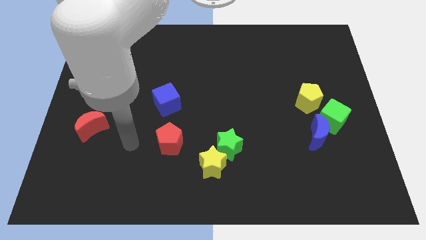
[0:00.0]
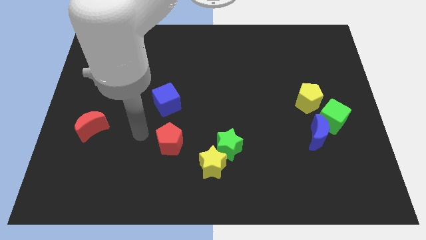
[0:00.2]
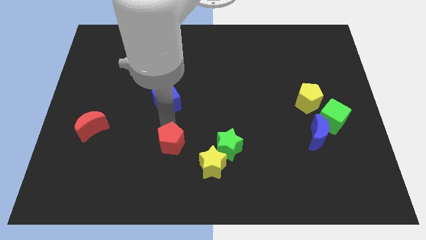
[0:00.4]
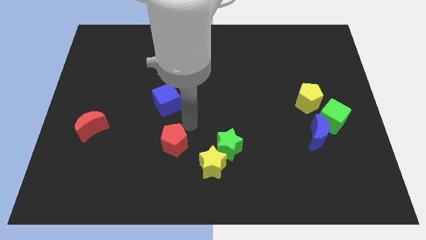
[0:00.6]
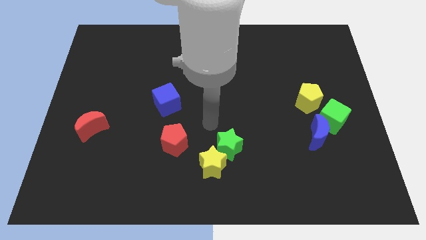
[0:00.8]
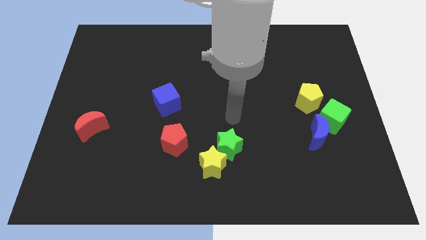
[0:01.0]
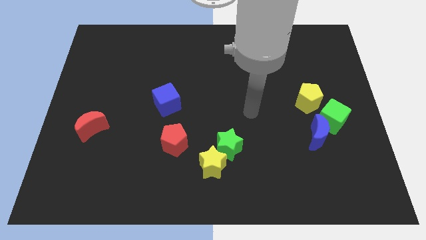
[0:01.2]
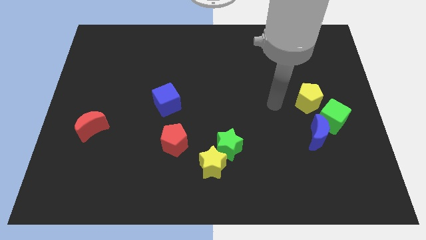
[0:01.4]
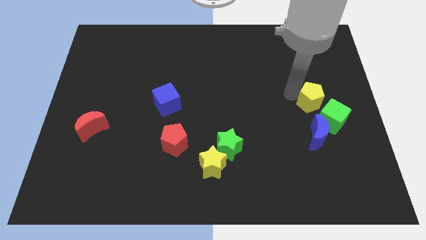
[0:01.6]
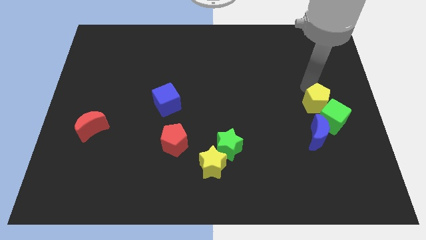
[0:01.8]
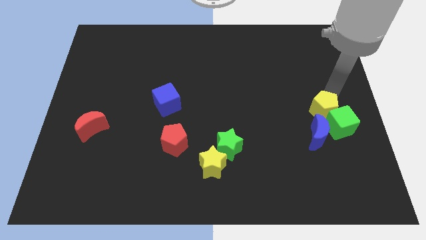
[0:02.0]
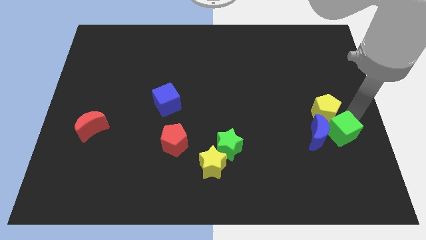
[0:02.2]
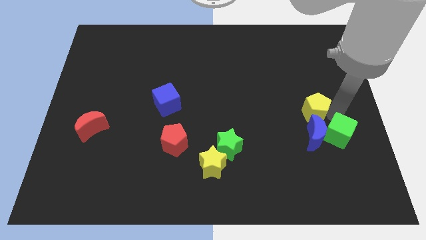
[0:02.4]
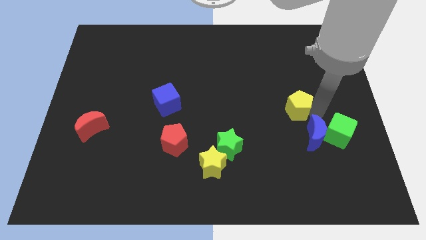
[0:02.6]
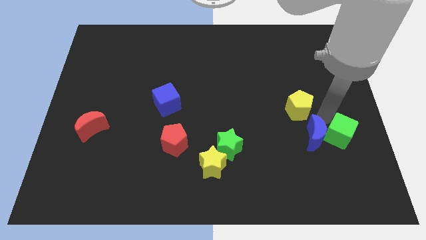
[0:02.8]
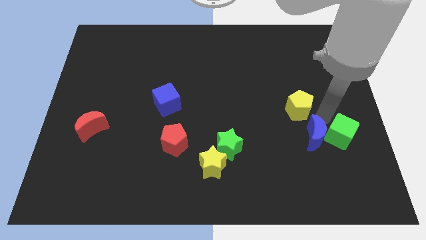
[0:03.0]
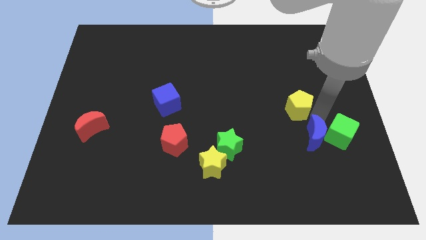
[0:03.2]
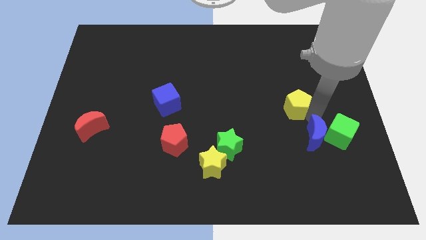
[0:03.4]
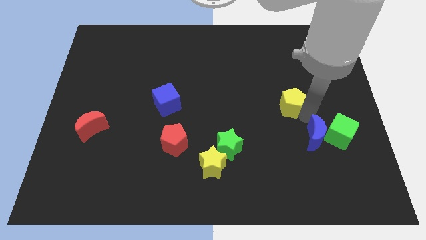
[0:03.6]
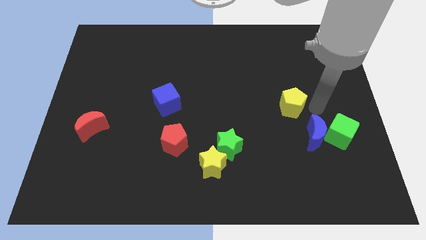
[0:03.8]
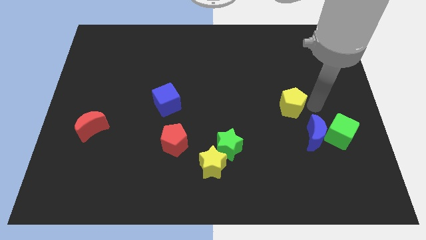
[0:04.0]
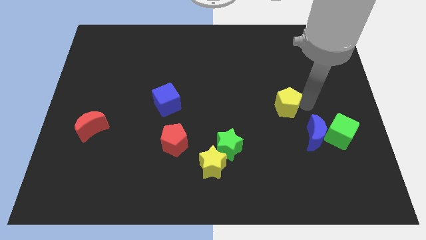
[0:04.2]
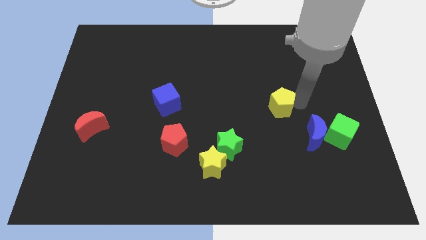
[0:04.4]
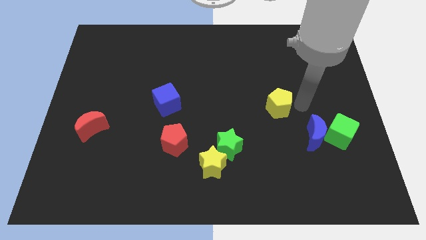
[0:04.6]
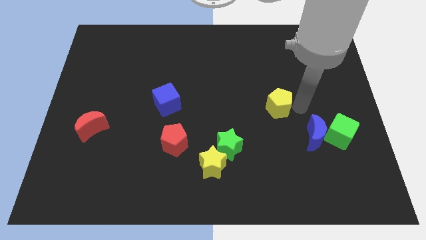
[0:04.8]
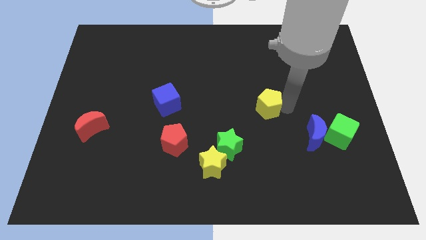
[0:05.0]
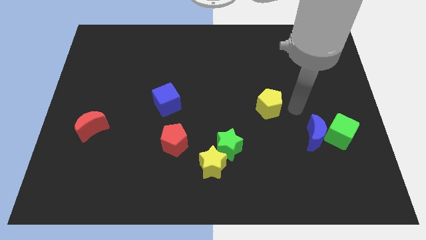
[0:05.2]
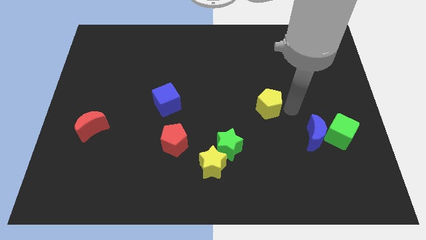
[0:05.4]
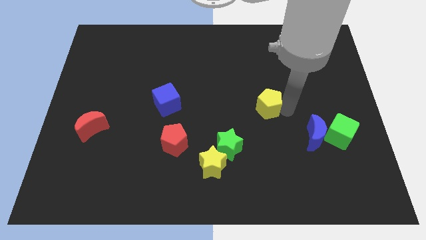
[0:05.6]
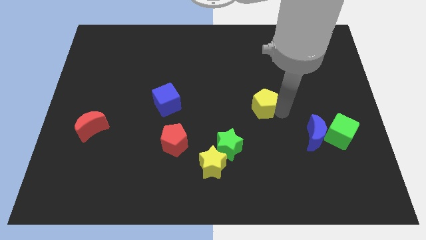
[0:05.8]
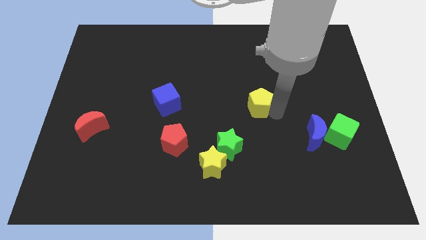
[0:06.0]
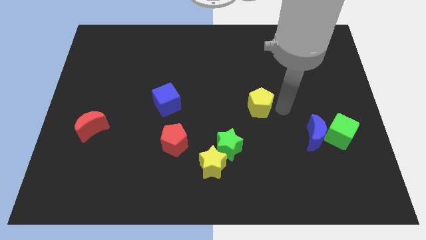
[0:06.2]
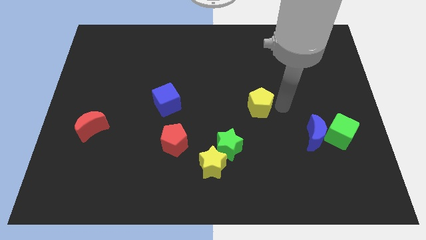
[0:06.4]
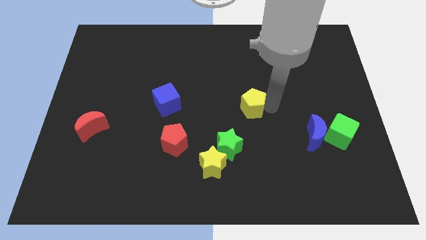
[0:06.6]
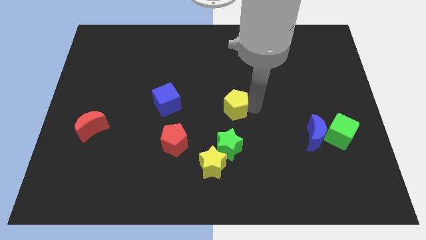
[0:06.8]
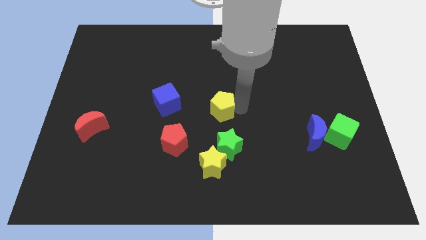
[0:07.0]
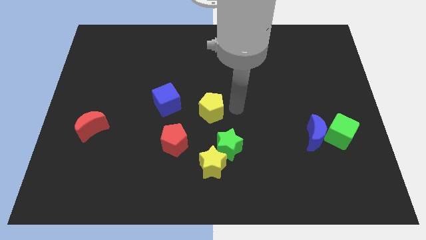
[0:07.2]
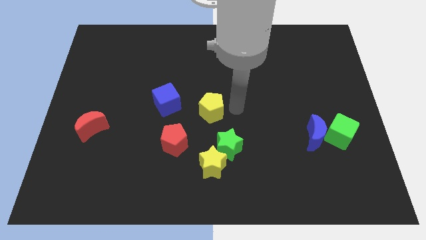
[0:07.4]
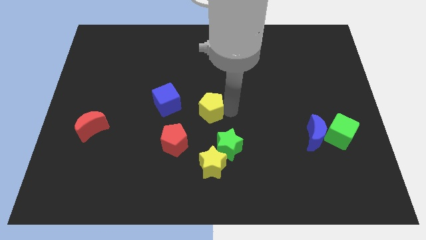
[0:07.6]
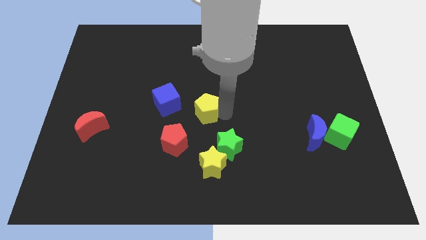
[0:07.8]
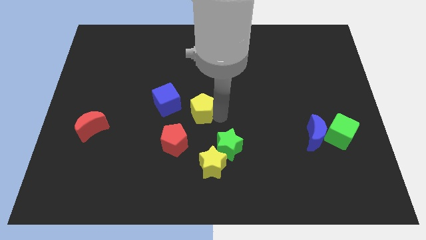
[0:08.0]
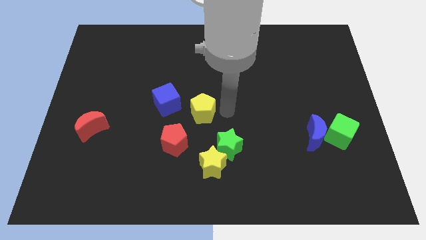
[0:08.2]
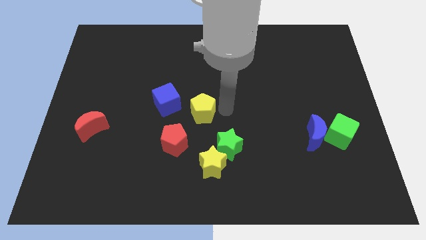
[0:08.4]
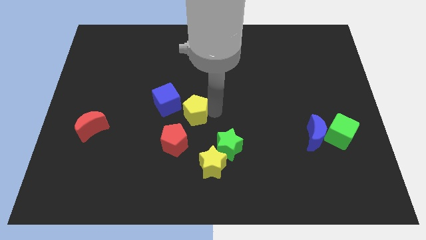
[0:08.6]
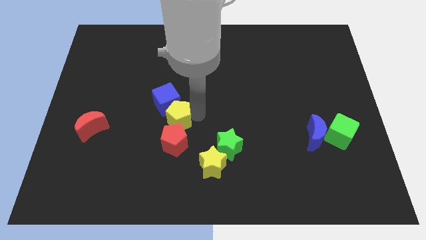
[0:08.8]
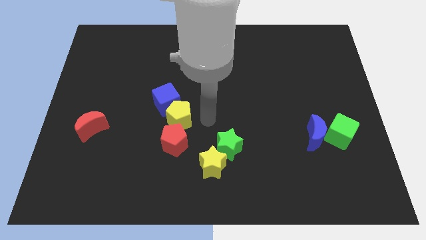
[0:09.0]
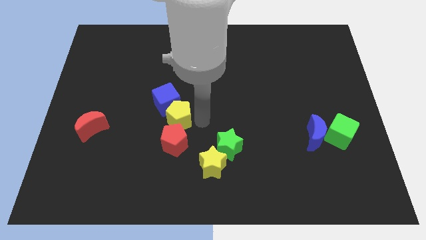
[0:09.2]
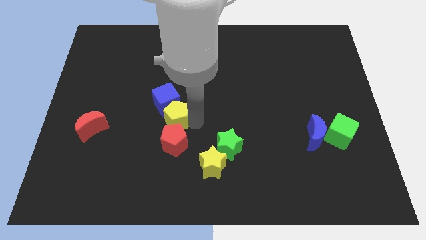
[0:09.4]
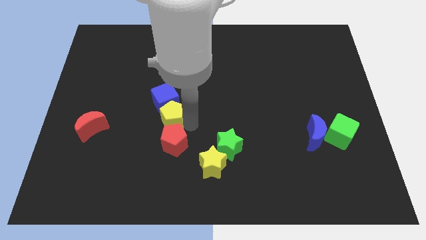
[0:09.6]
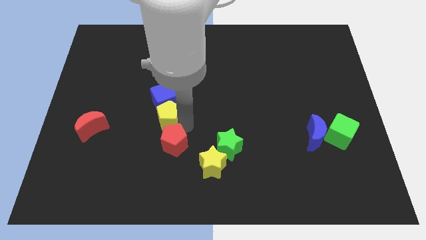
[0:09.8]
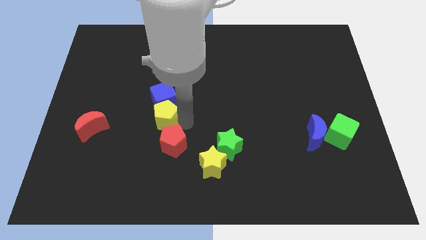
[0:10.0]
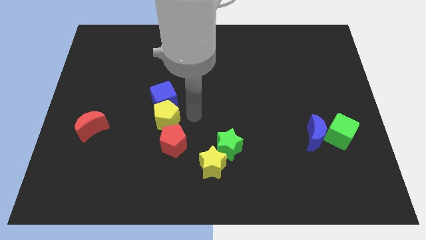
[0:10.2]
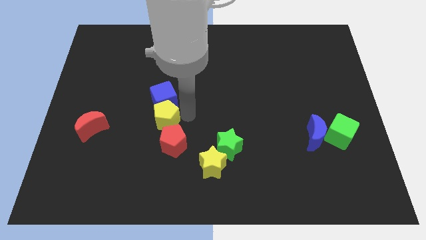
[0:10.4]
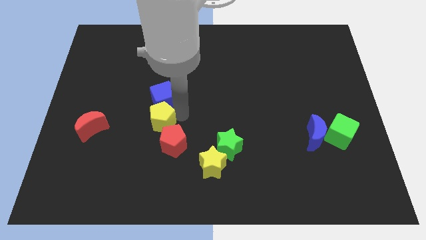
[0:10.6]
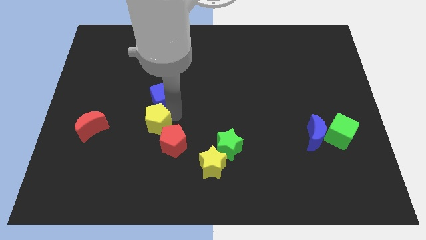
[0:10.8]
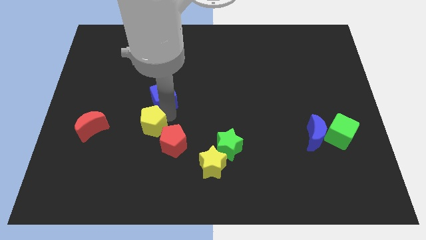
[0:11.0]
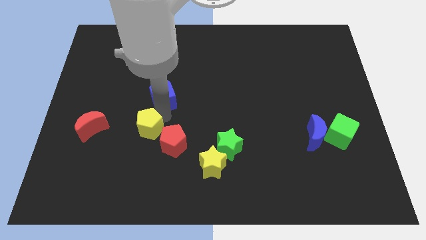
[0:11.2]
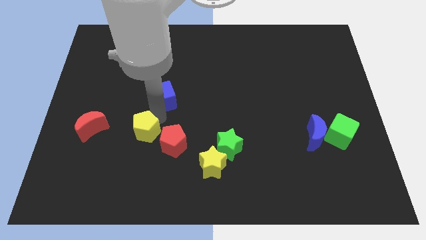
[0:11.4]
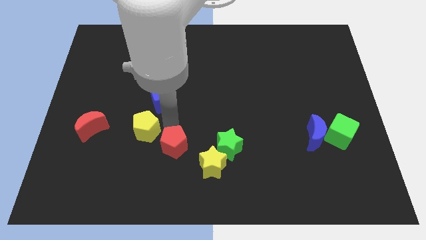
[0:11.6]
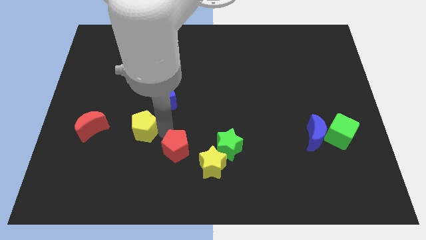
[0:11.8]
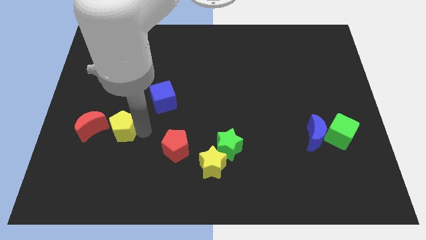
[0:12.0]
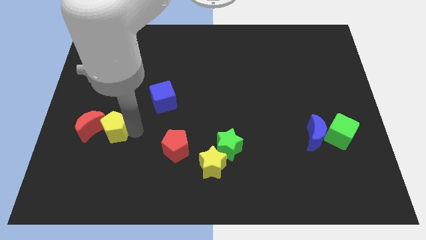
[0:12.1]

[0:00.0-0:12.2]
put the yellow pentagon towards the red moon

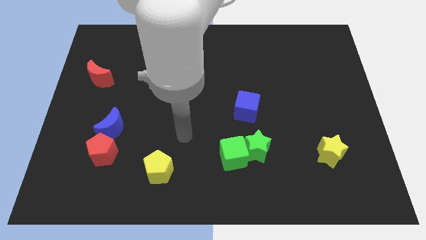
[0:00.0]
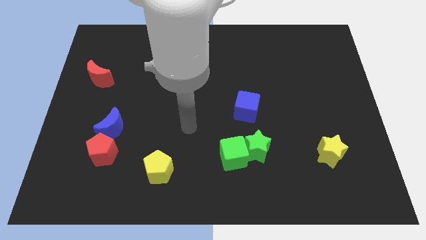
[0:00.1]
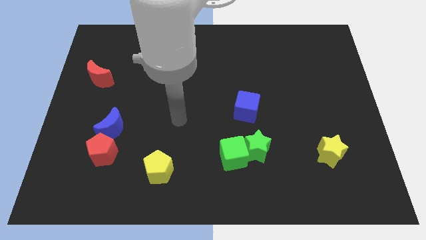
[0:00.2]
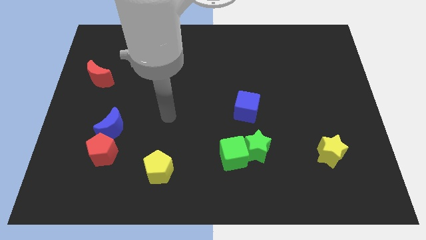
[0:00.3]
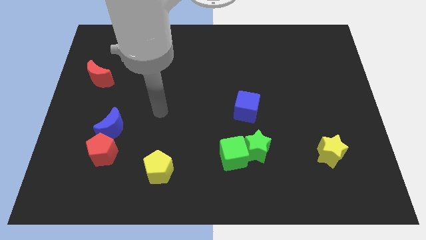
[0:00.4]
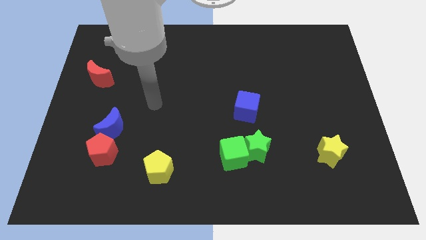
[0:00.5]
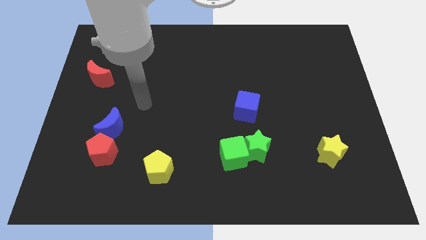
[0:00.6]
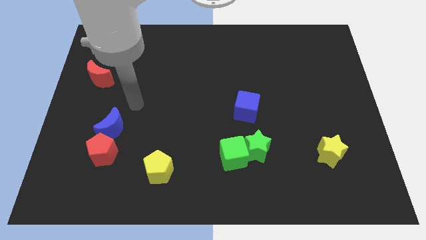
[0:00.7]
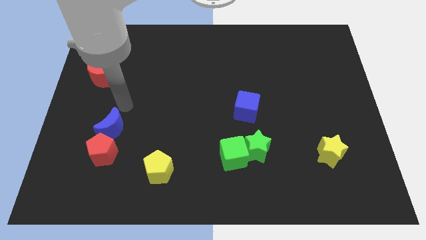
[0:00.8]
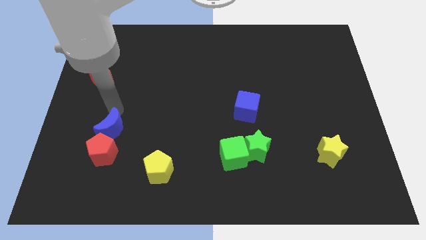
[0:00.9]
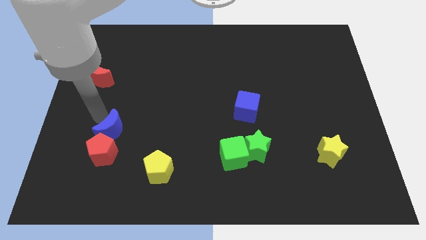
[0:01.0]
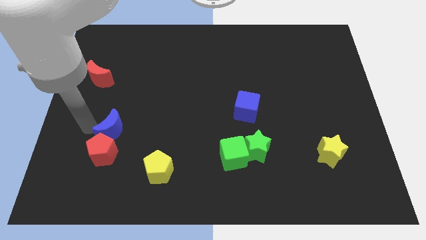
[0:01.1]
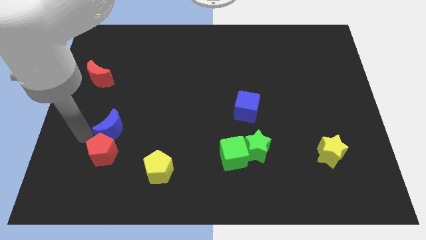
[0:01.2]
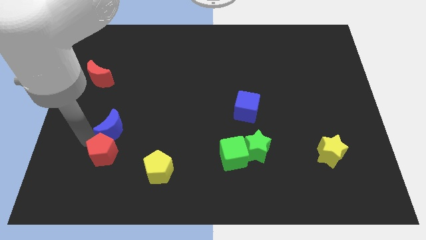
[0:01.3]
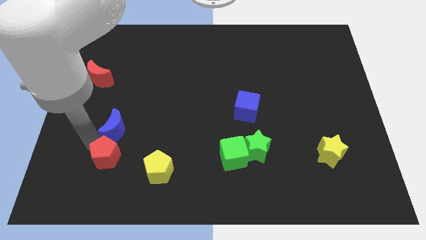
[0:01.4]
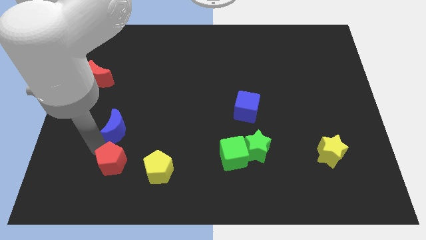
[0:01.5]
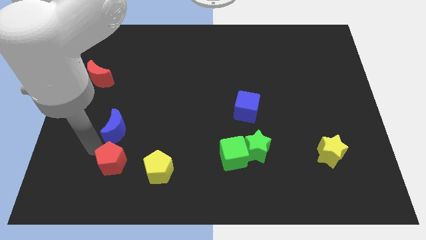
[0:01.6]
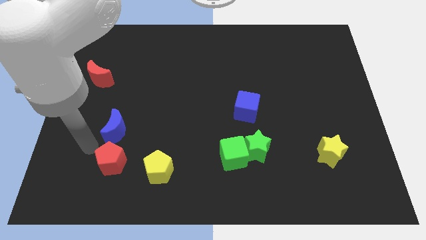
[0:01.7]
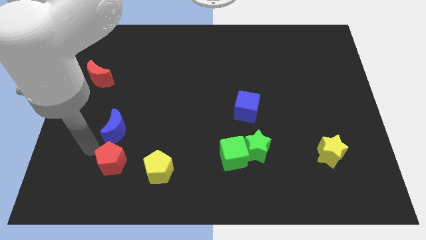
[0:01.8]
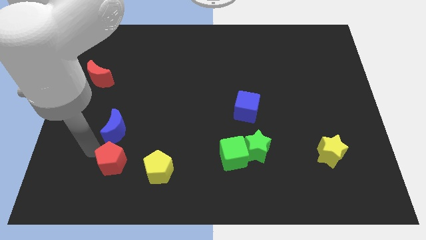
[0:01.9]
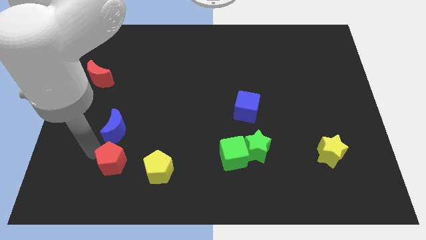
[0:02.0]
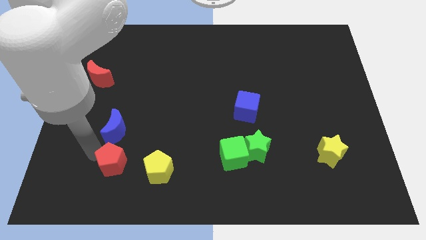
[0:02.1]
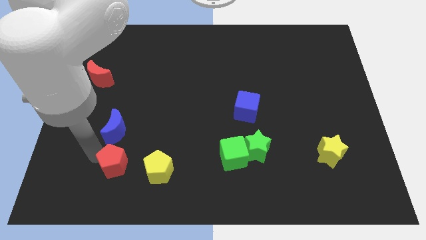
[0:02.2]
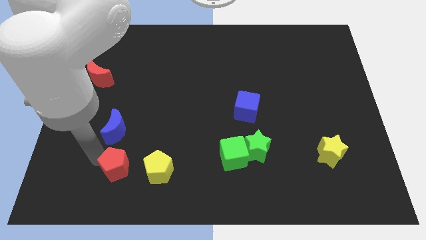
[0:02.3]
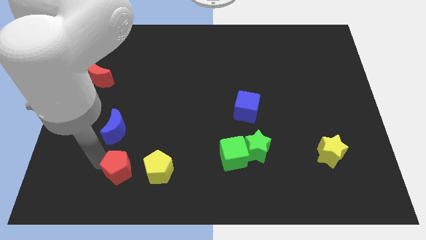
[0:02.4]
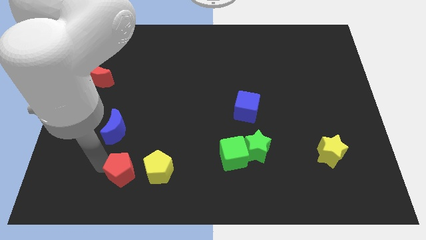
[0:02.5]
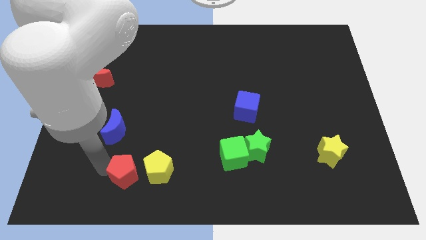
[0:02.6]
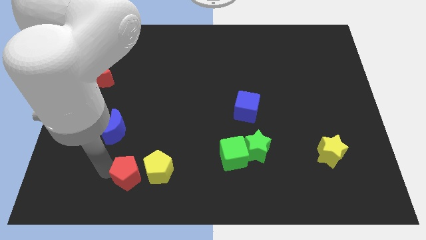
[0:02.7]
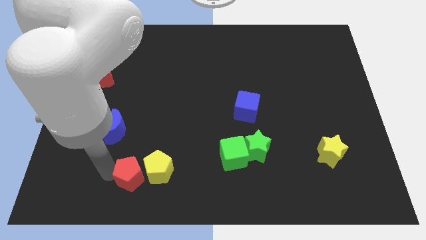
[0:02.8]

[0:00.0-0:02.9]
slide the red pentagon close to the yellow pentagon
